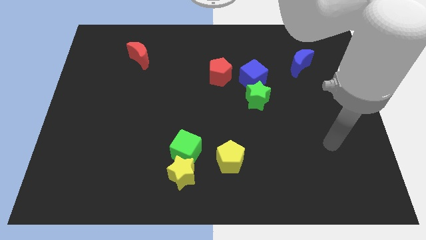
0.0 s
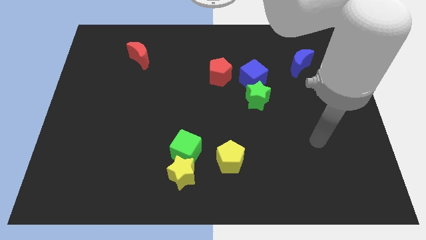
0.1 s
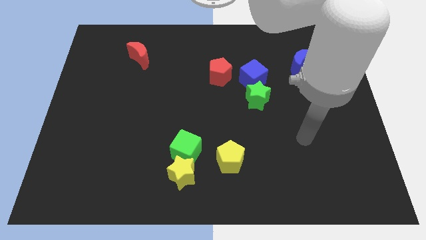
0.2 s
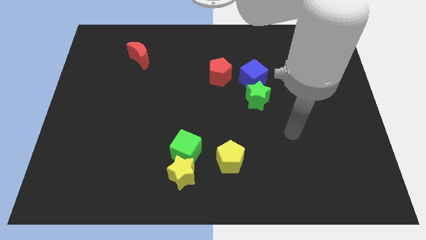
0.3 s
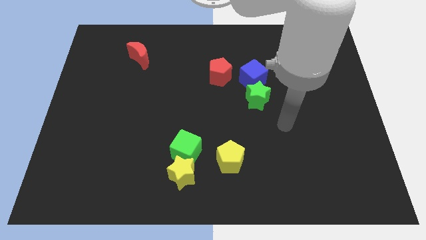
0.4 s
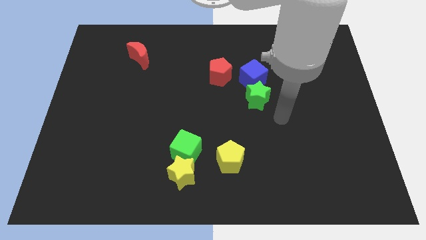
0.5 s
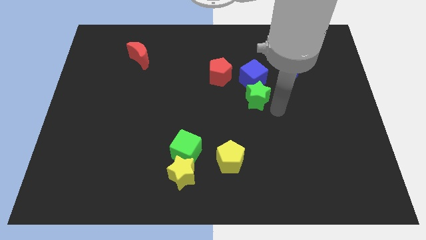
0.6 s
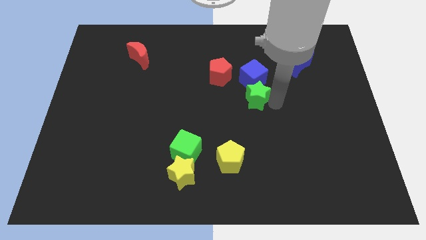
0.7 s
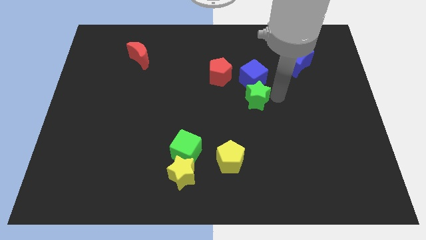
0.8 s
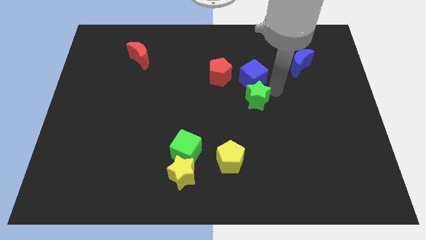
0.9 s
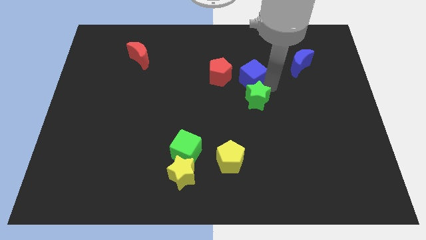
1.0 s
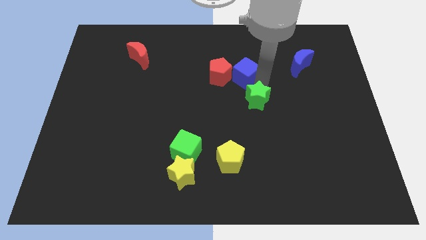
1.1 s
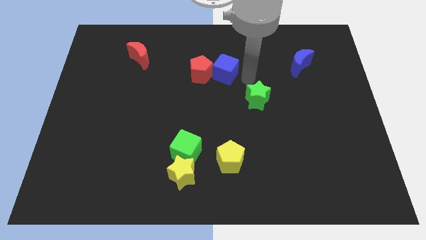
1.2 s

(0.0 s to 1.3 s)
pull the green star apart from the blue cube

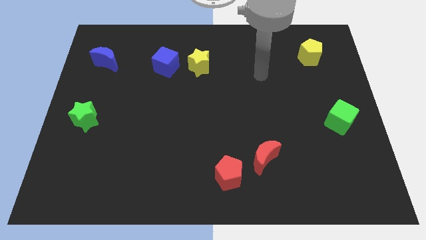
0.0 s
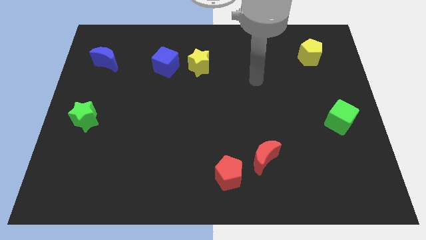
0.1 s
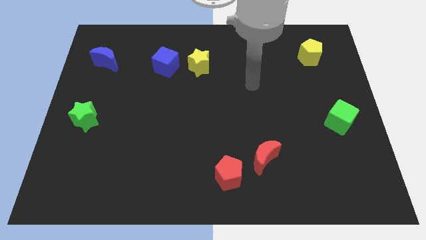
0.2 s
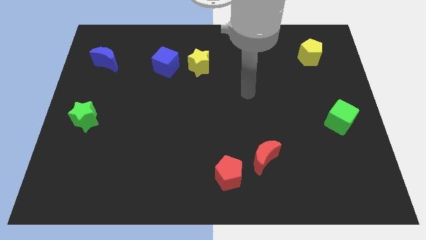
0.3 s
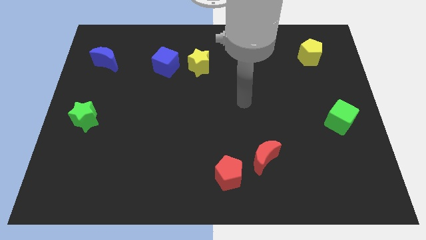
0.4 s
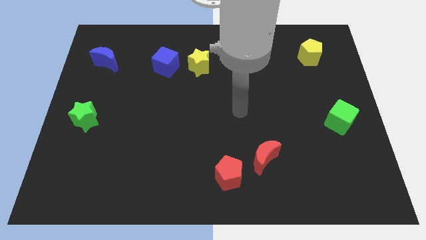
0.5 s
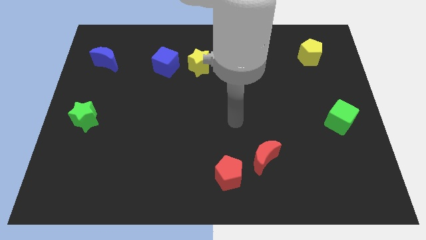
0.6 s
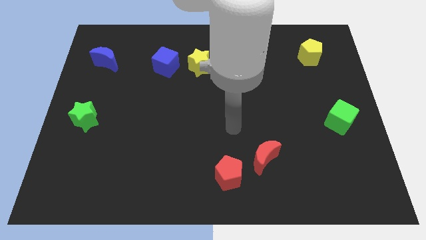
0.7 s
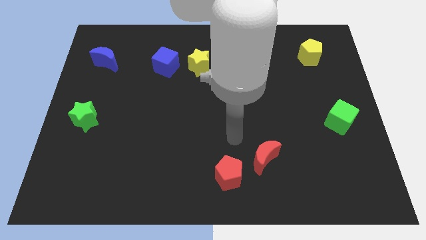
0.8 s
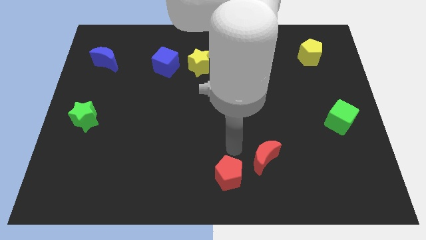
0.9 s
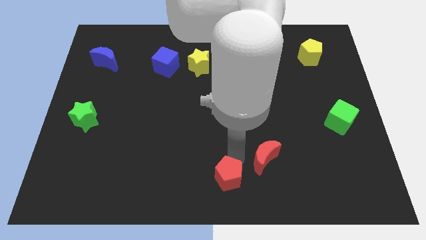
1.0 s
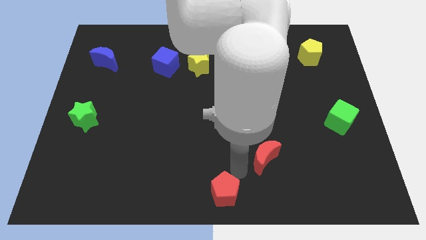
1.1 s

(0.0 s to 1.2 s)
move the red moon away from the red pentagon

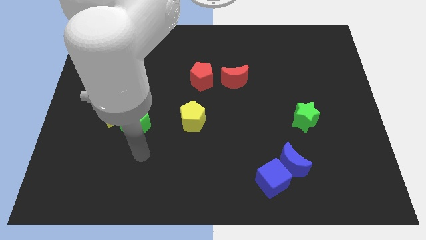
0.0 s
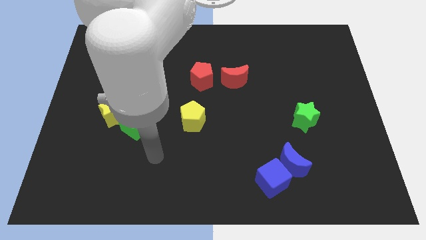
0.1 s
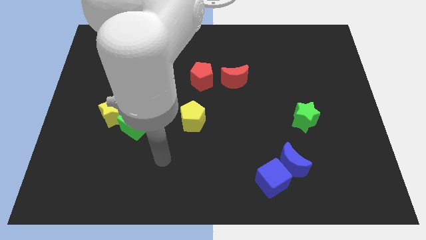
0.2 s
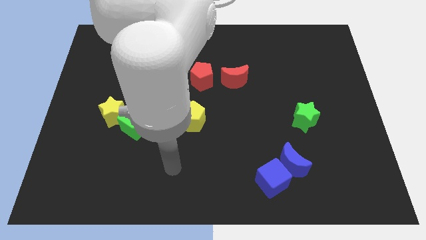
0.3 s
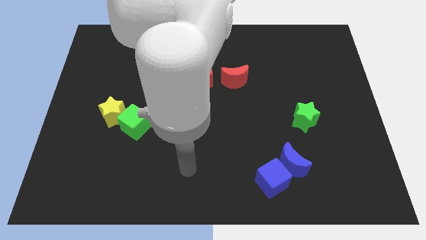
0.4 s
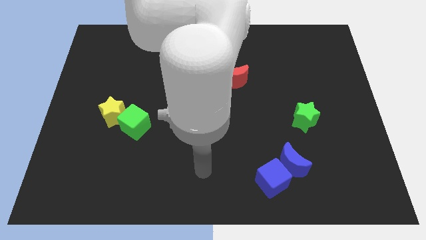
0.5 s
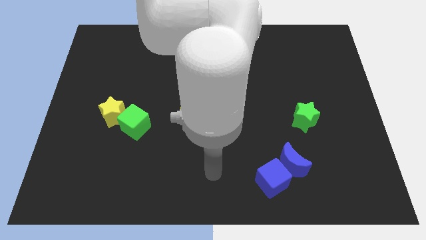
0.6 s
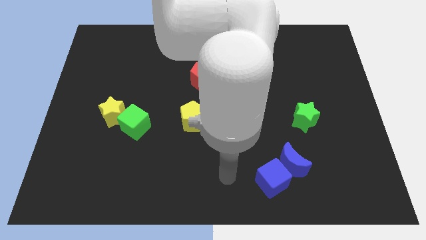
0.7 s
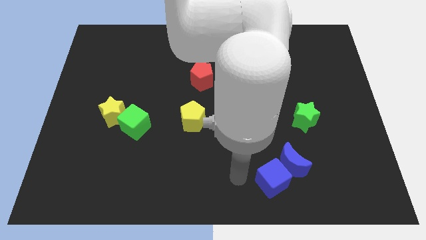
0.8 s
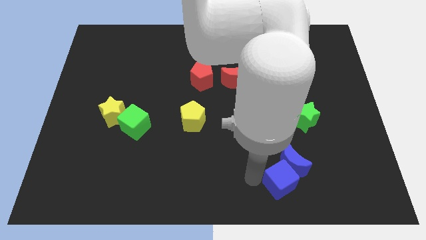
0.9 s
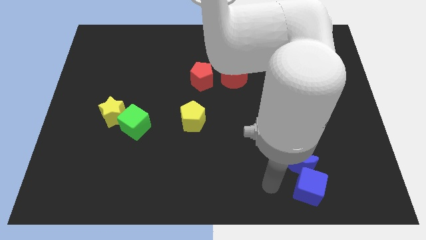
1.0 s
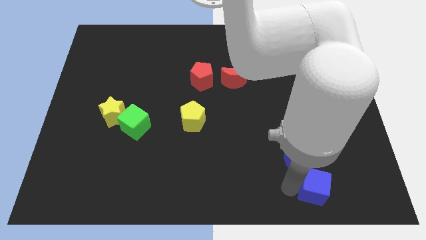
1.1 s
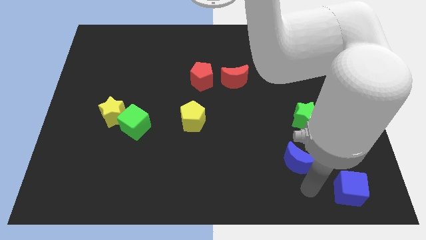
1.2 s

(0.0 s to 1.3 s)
pull the blue moon apart from the blue cube

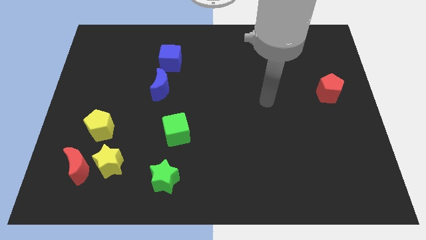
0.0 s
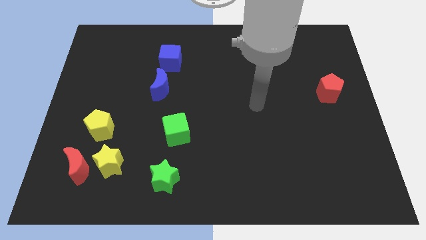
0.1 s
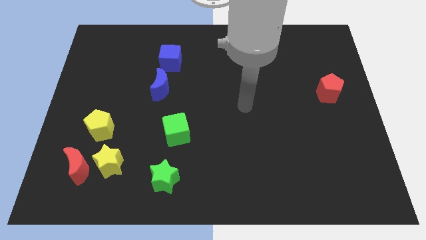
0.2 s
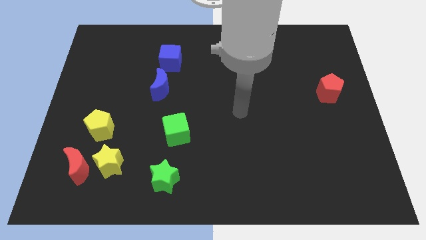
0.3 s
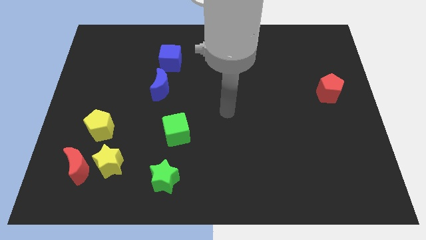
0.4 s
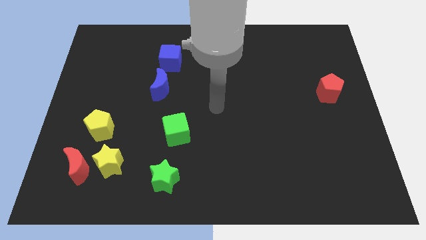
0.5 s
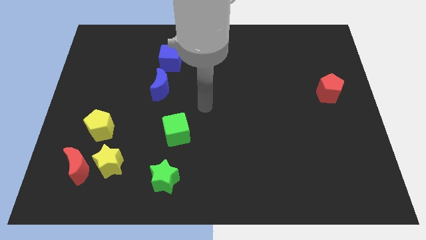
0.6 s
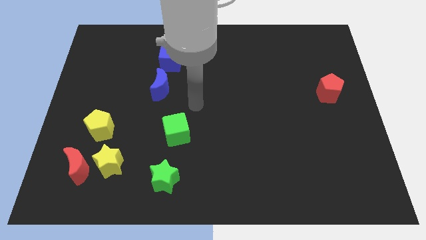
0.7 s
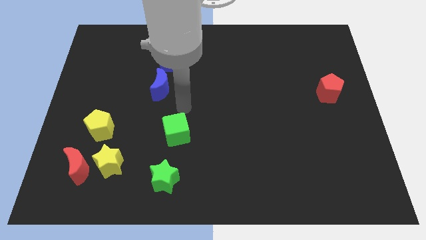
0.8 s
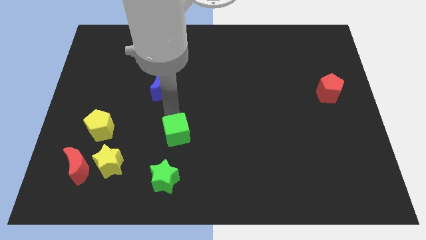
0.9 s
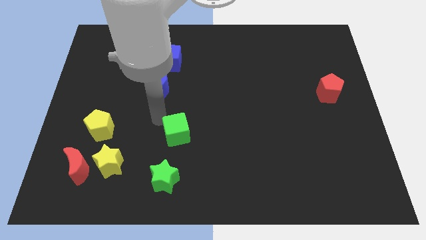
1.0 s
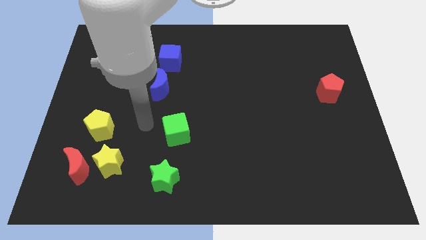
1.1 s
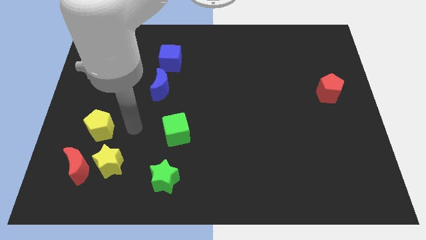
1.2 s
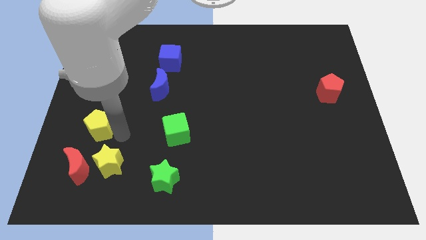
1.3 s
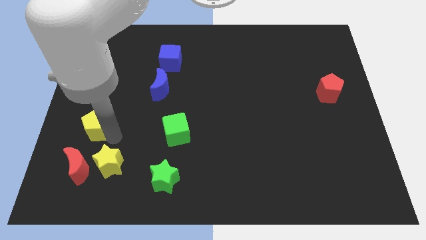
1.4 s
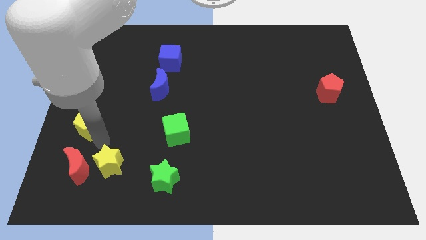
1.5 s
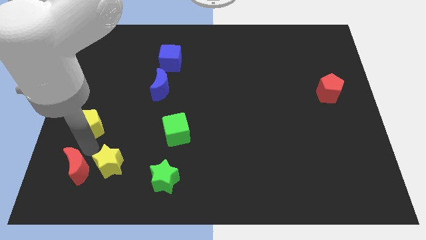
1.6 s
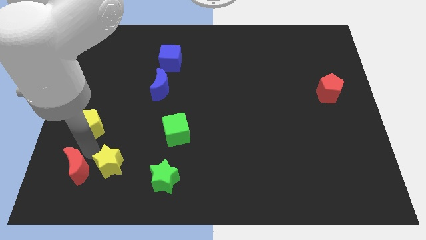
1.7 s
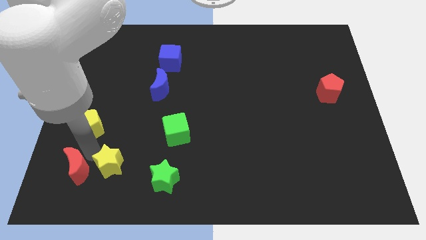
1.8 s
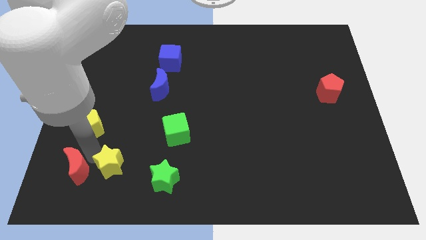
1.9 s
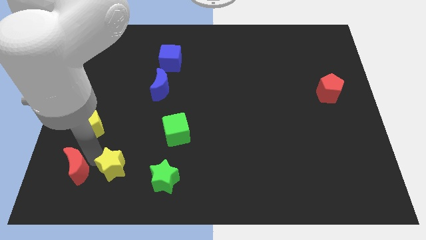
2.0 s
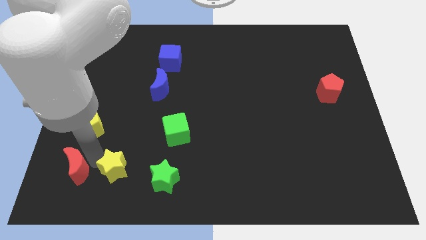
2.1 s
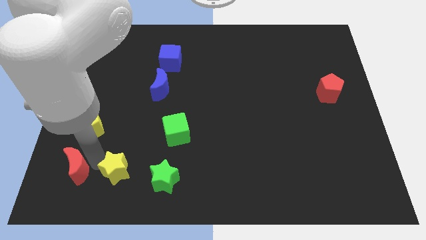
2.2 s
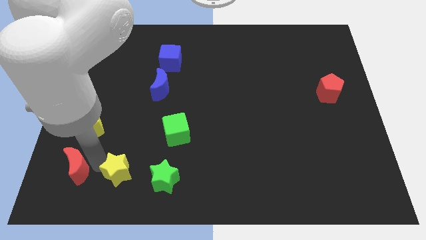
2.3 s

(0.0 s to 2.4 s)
move the yellow star away from the red moon and yellow pentagon

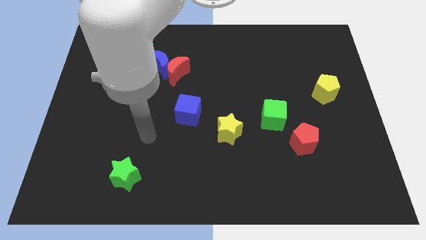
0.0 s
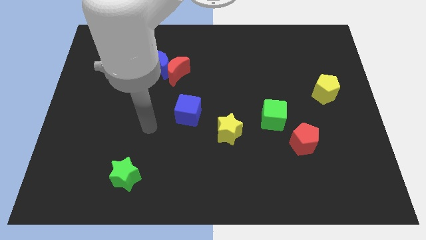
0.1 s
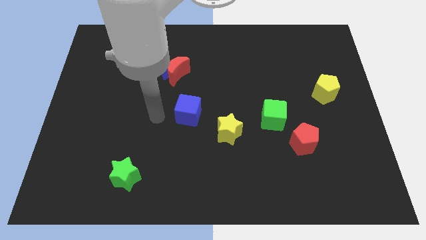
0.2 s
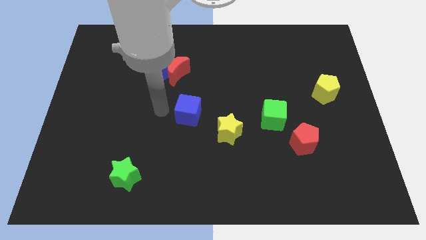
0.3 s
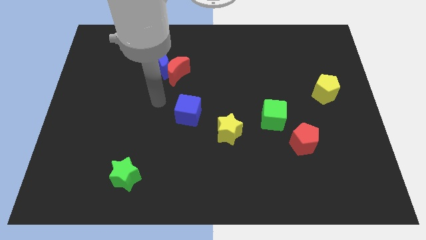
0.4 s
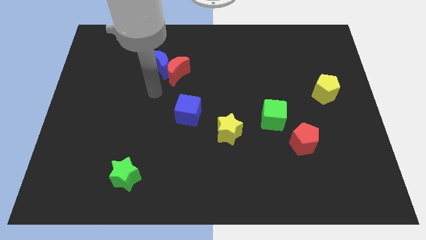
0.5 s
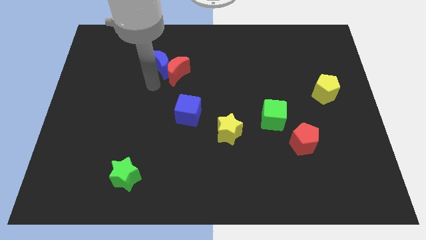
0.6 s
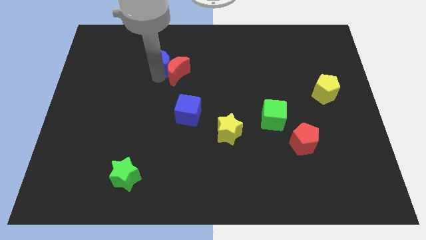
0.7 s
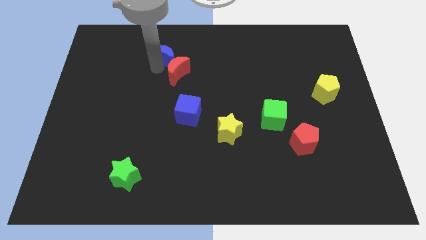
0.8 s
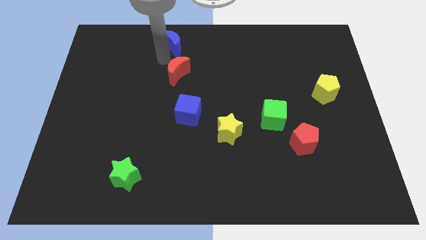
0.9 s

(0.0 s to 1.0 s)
move the red moon away from the blue moon

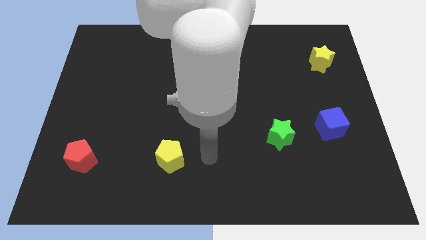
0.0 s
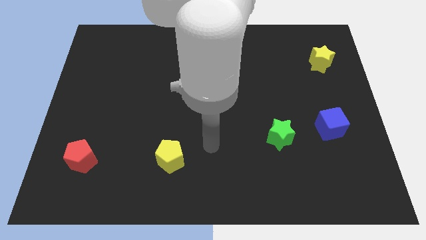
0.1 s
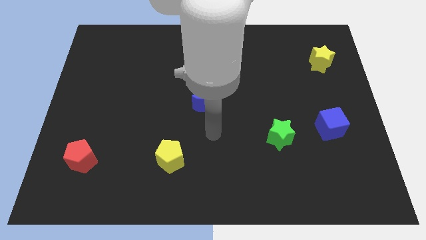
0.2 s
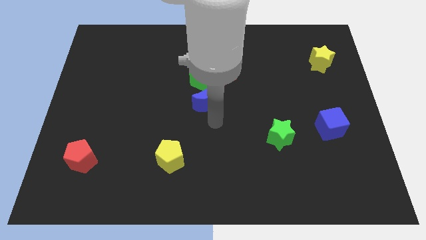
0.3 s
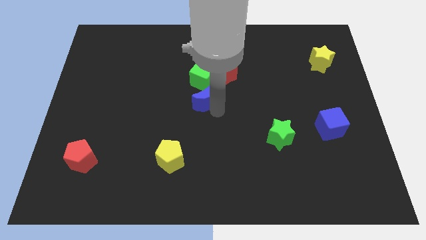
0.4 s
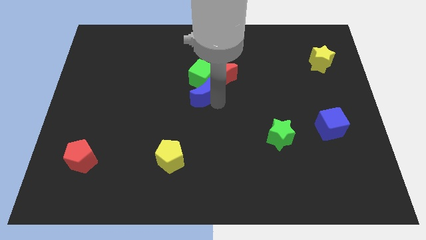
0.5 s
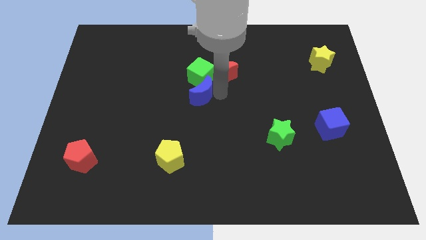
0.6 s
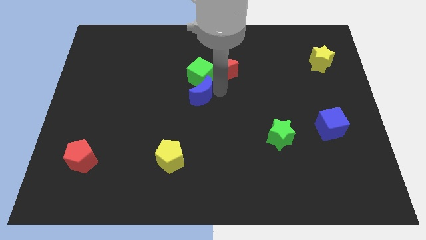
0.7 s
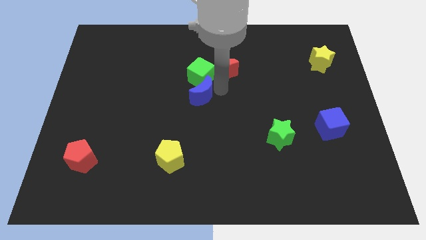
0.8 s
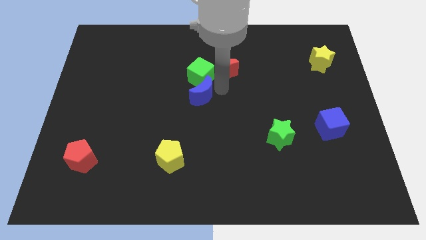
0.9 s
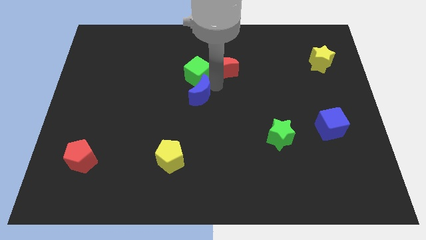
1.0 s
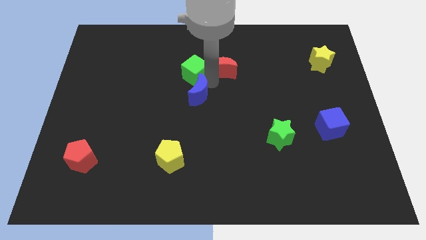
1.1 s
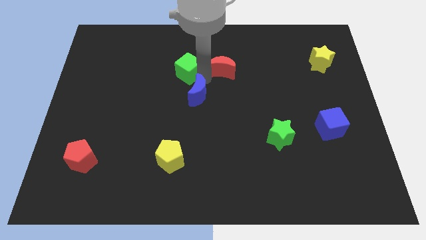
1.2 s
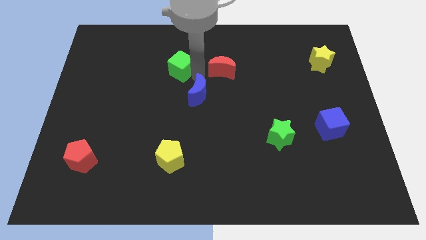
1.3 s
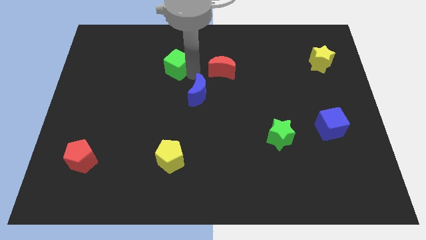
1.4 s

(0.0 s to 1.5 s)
pull the green cube apart from the red moon and blue moon

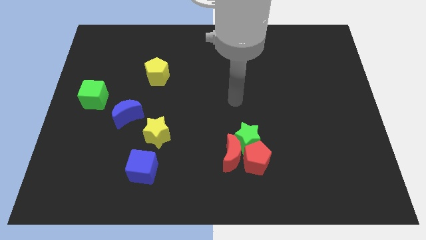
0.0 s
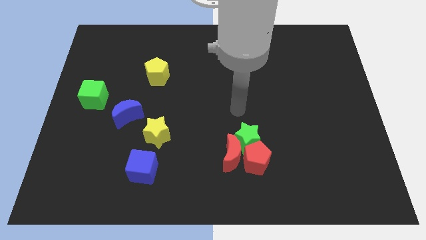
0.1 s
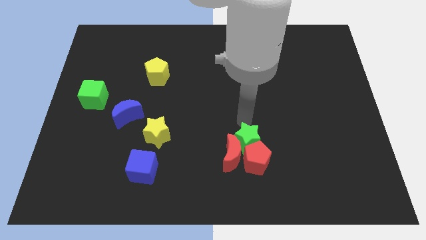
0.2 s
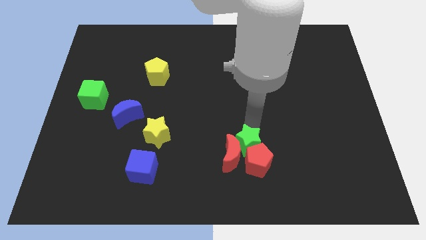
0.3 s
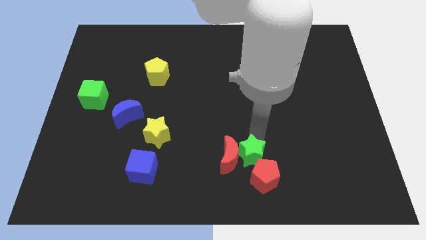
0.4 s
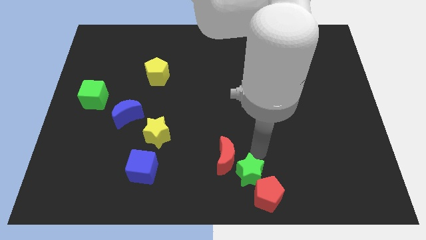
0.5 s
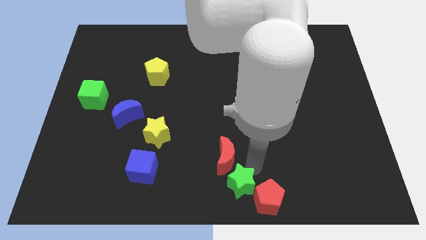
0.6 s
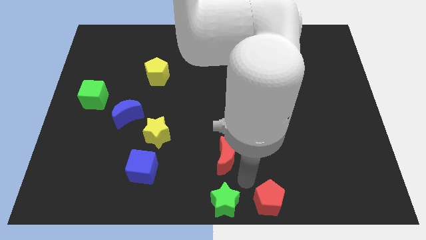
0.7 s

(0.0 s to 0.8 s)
separate the red moon from the green star and red pentagon

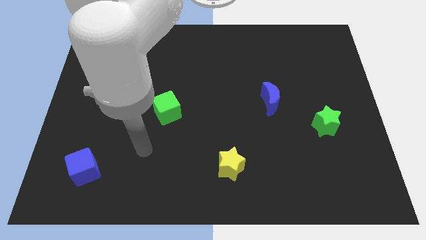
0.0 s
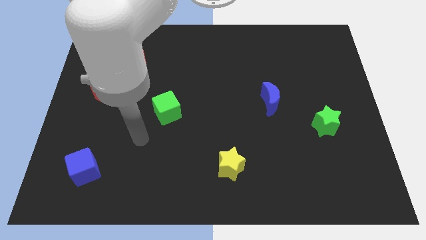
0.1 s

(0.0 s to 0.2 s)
separate the red moon from the yellow pentagon
